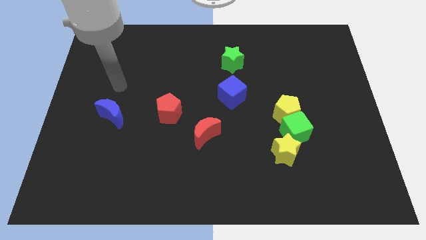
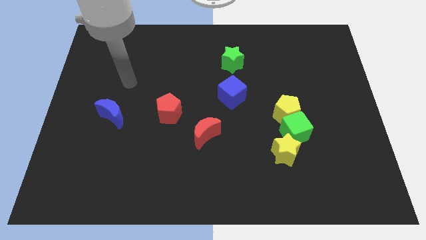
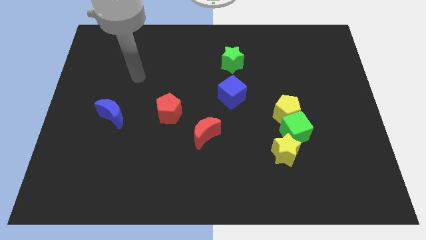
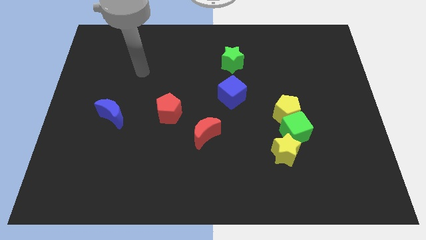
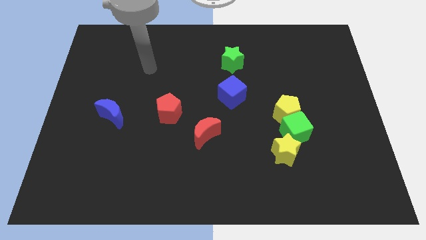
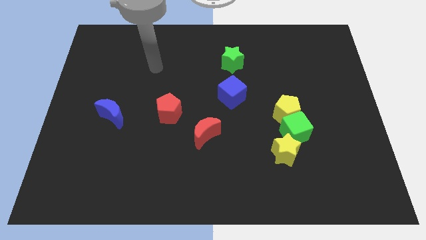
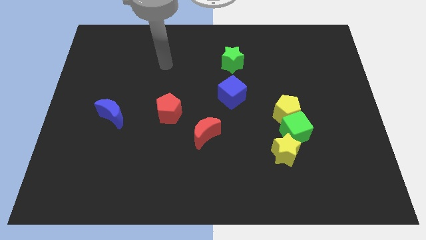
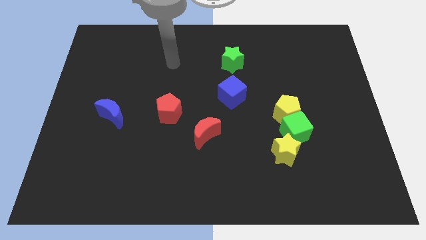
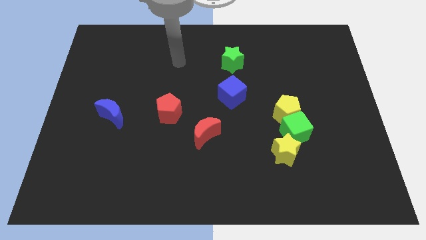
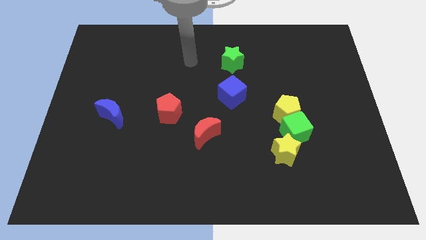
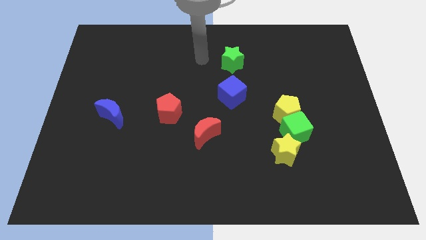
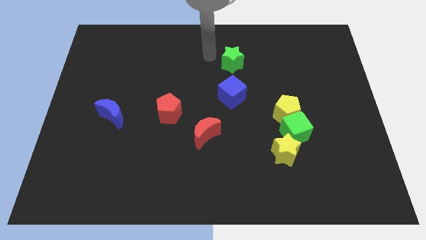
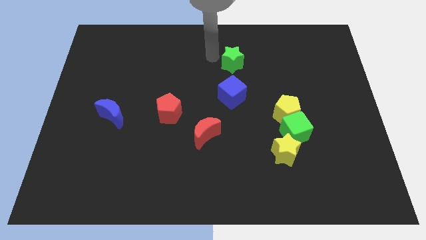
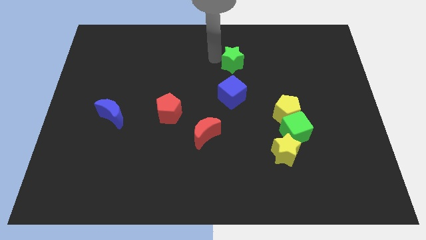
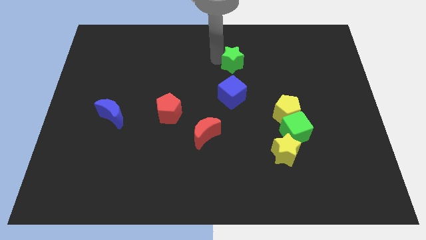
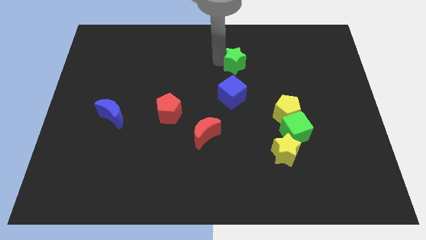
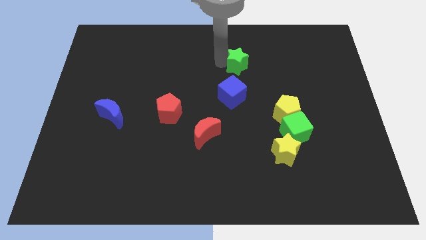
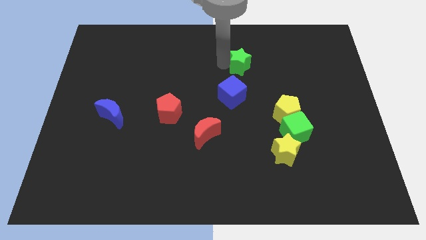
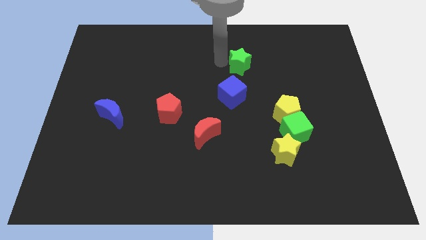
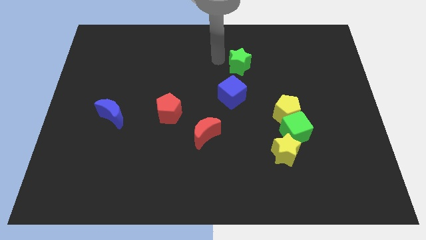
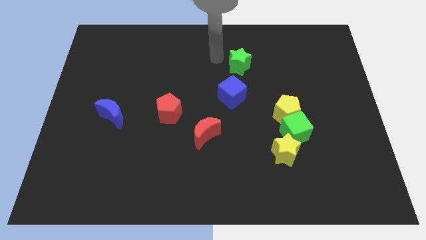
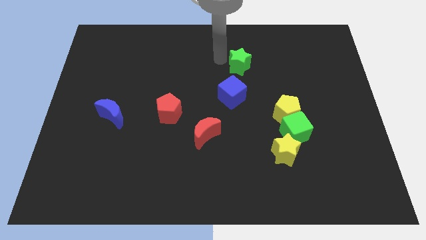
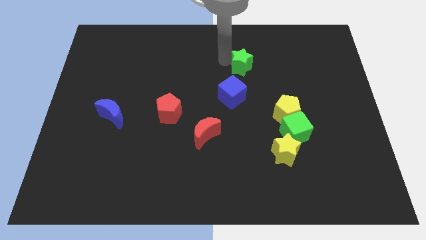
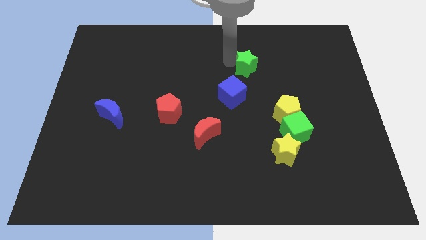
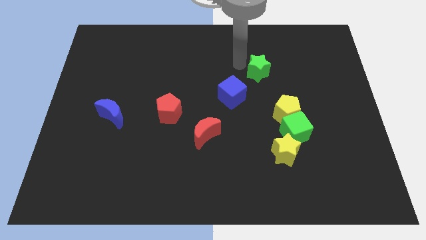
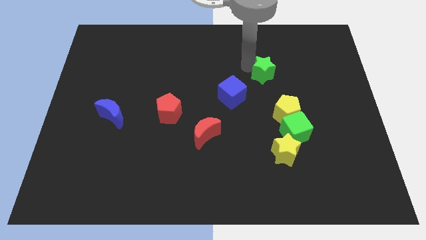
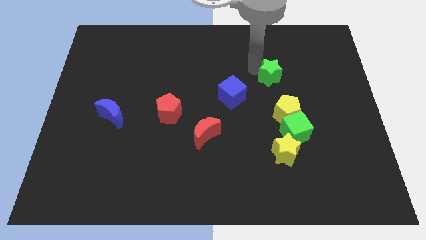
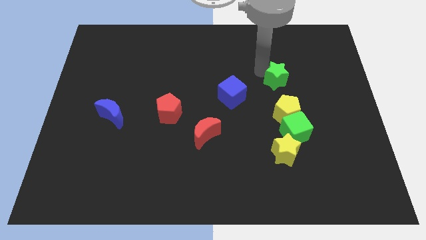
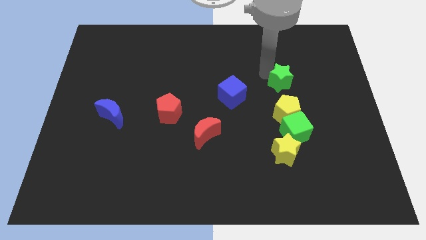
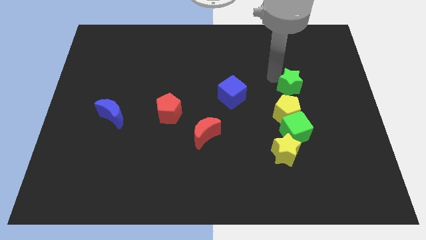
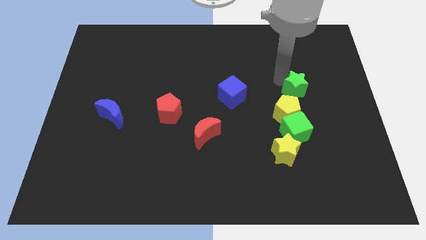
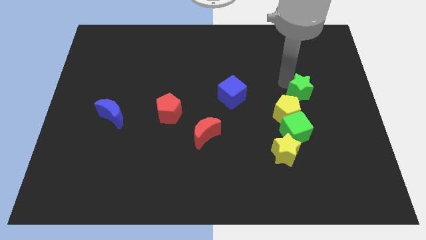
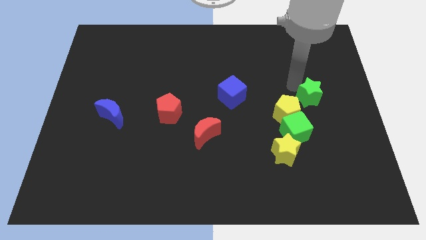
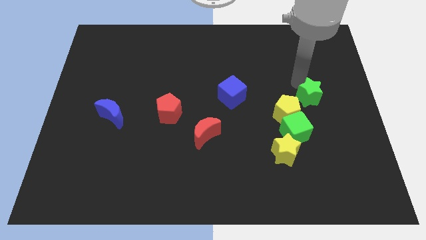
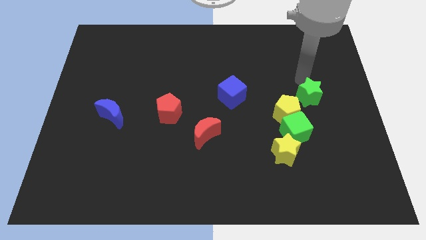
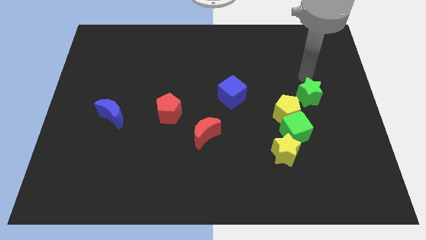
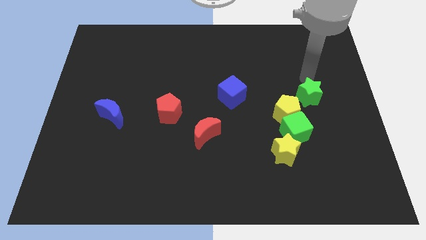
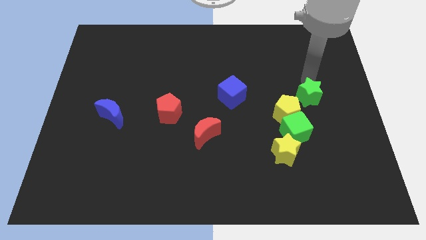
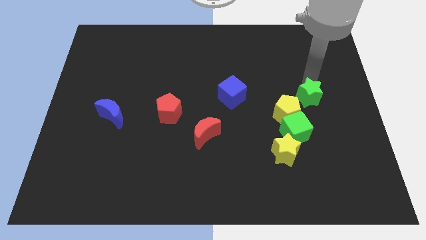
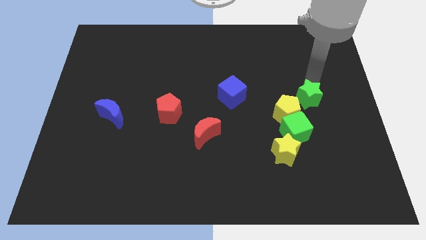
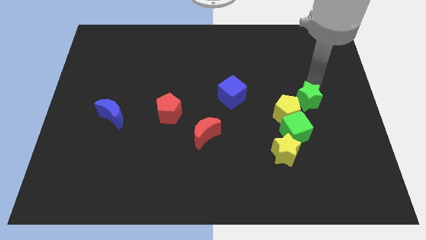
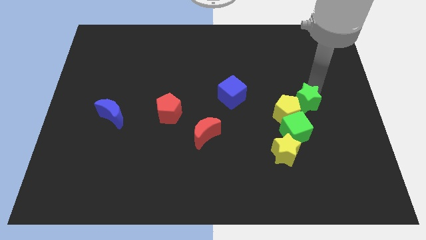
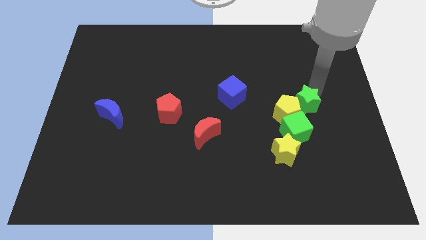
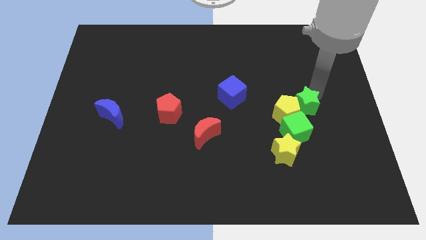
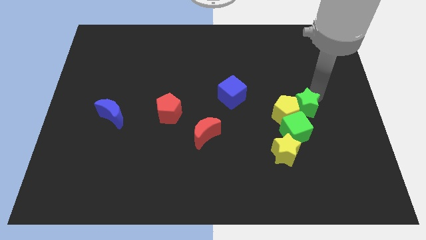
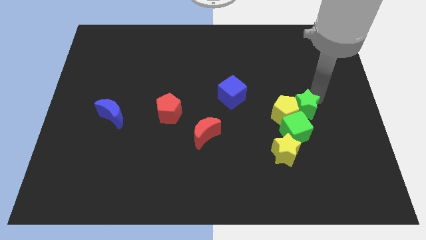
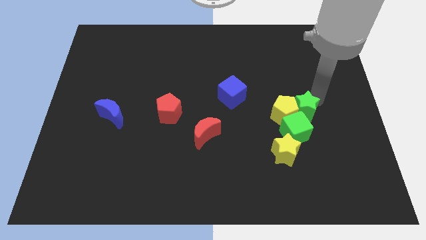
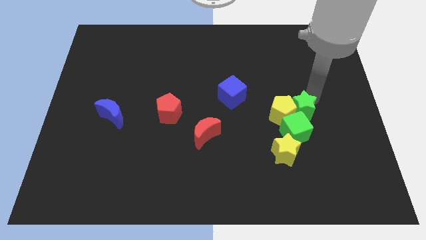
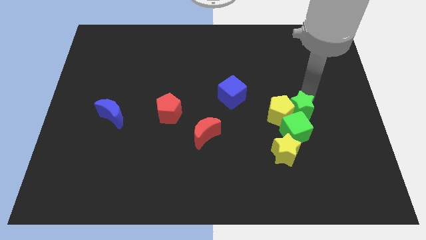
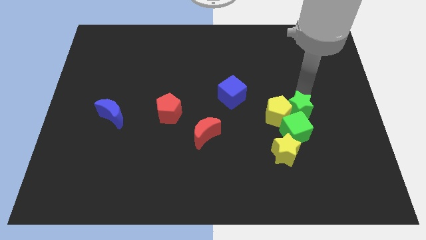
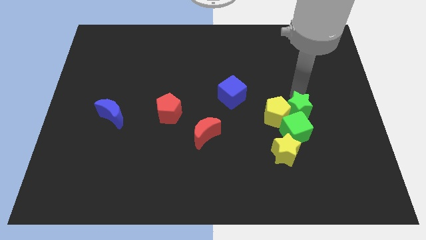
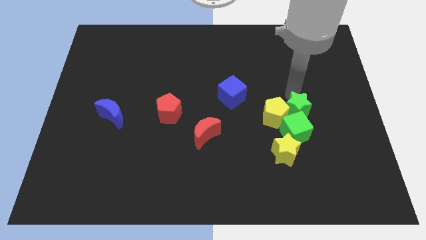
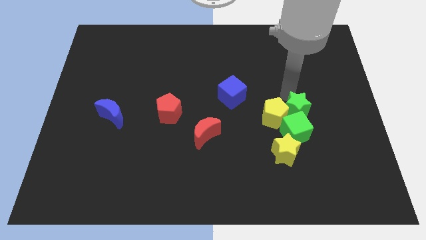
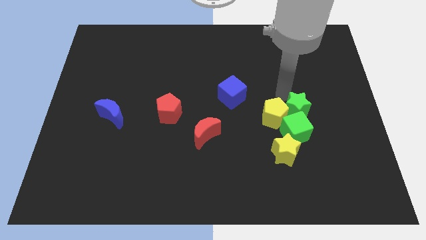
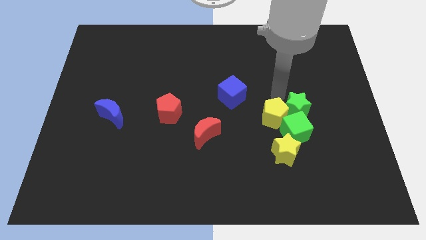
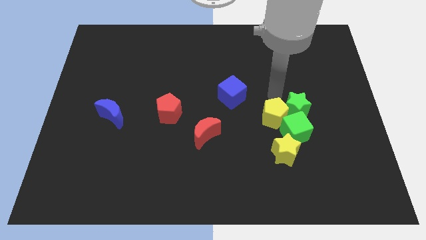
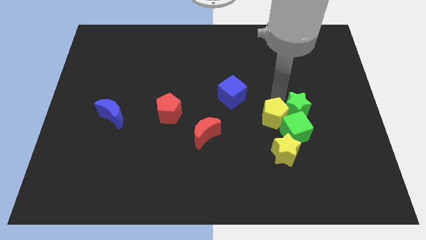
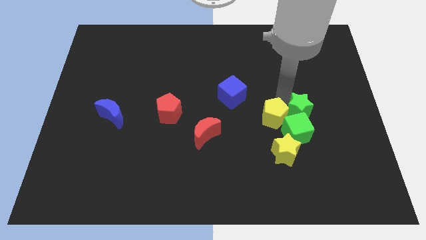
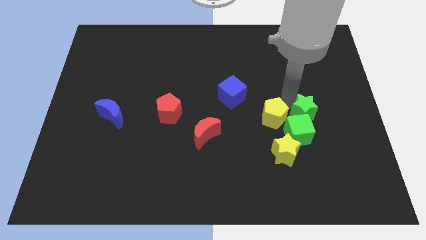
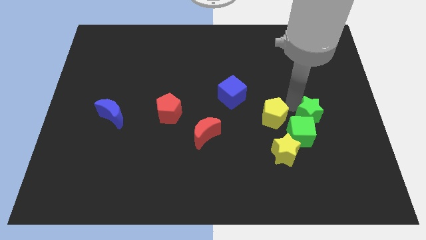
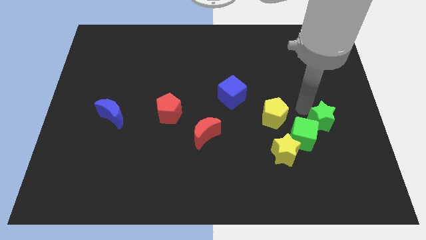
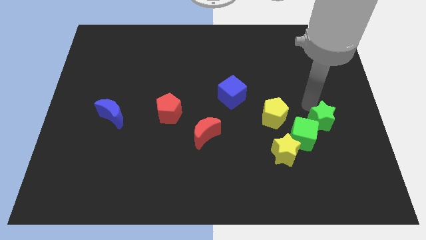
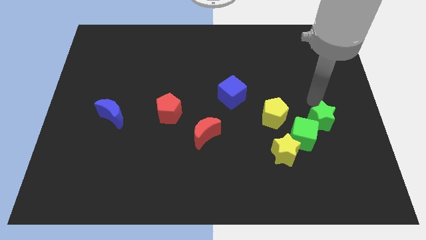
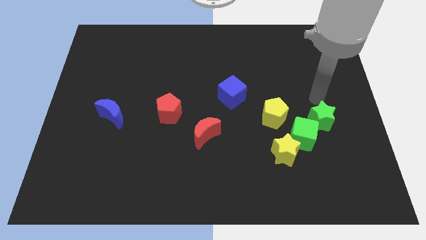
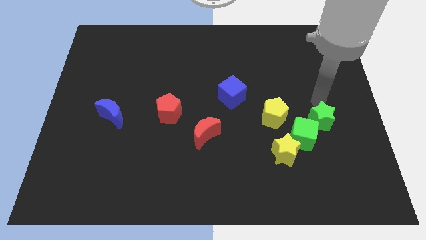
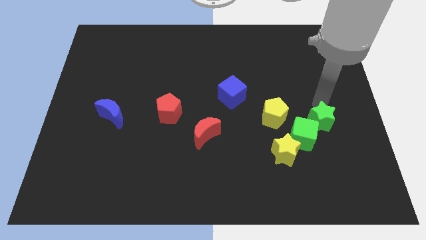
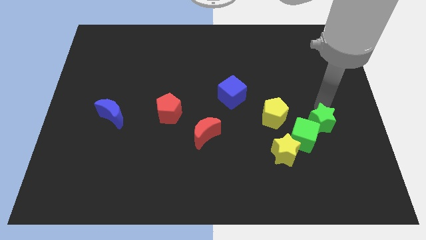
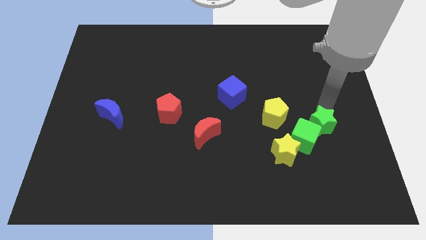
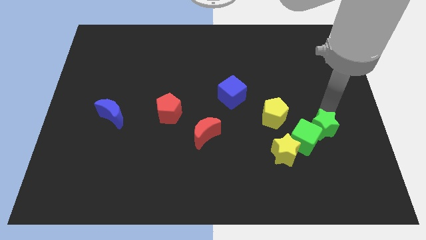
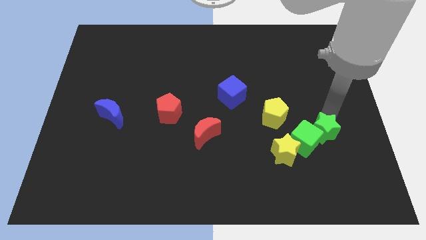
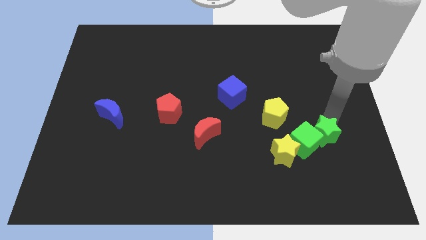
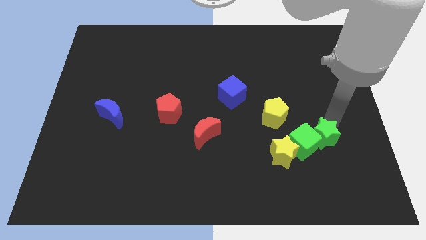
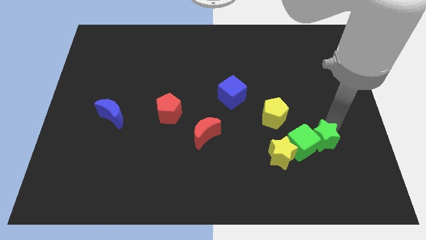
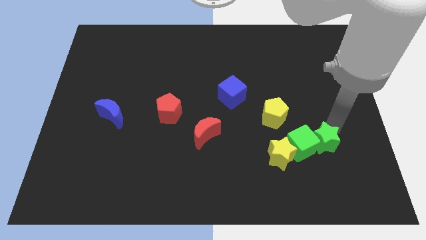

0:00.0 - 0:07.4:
slide the green star diagonally down and to the right of the green cube
